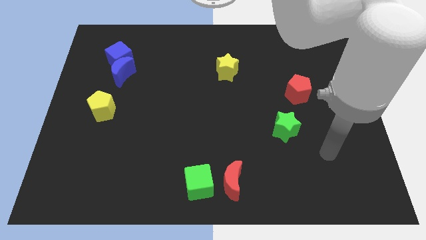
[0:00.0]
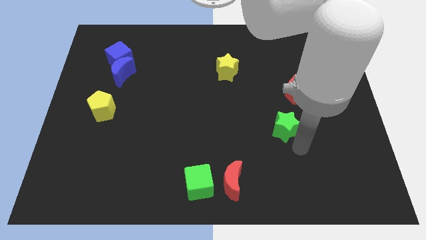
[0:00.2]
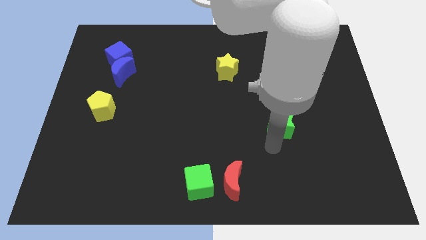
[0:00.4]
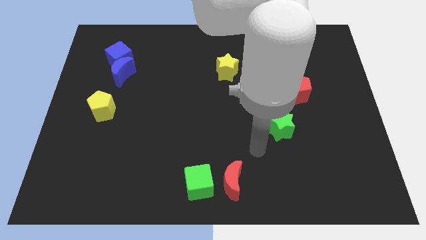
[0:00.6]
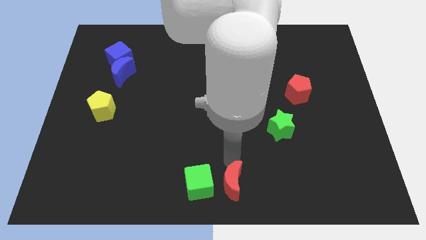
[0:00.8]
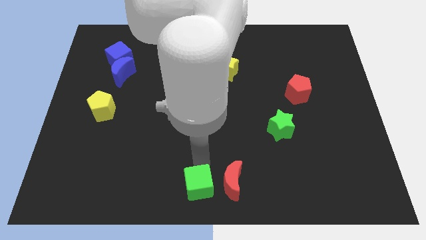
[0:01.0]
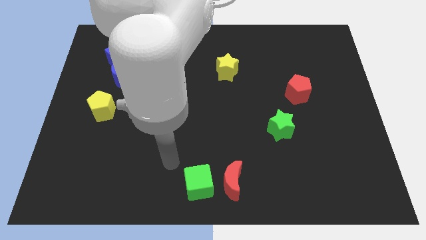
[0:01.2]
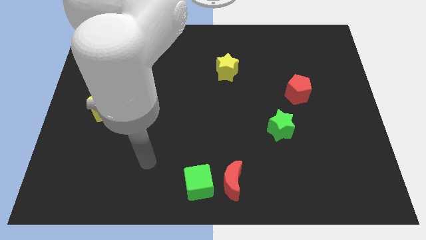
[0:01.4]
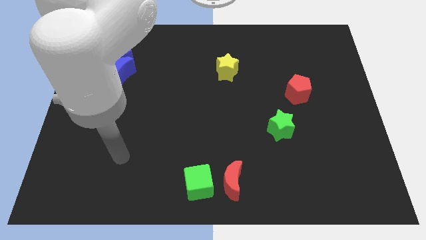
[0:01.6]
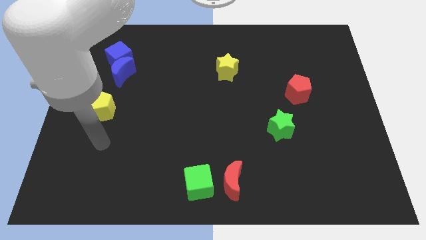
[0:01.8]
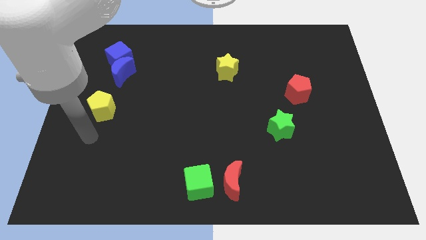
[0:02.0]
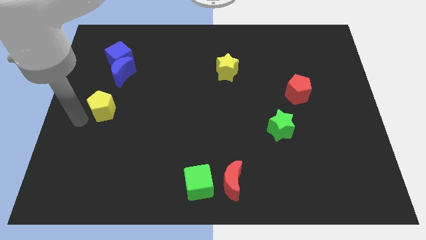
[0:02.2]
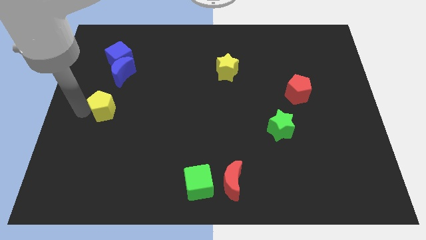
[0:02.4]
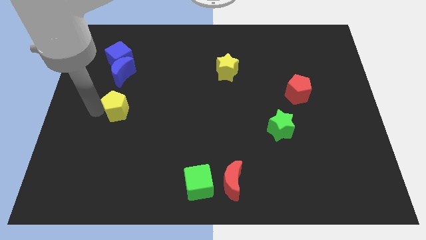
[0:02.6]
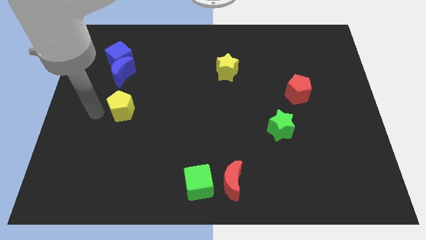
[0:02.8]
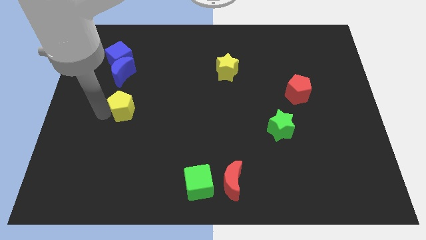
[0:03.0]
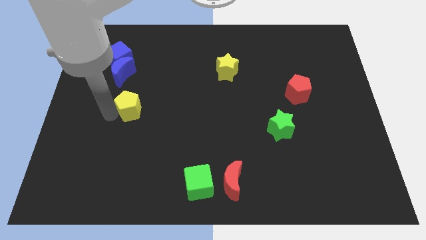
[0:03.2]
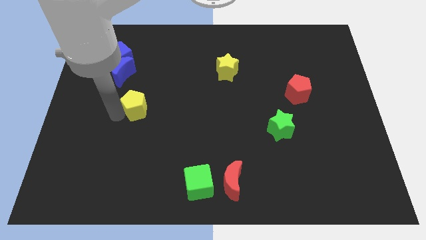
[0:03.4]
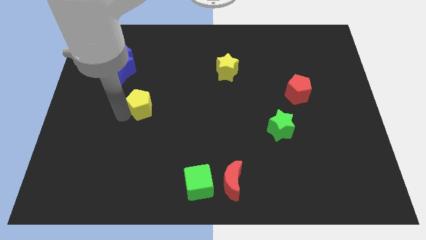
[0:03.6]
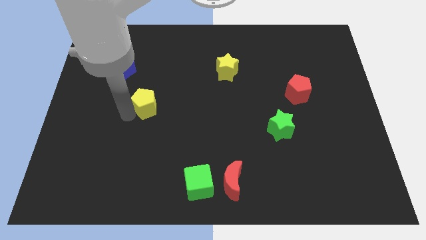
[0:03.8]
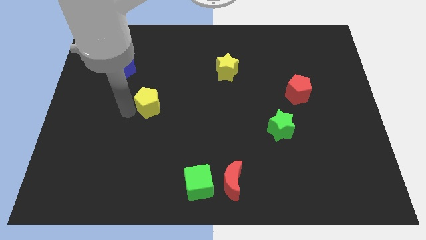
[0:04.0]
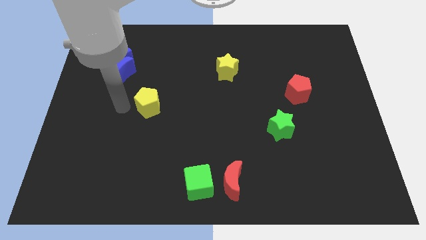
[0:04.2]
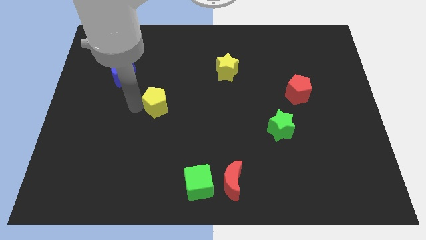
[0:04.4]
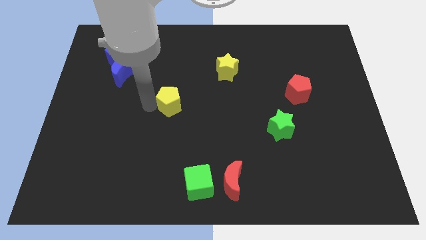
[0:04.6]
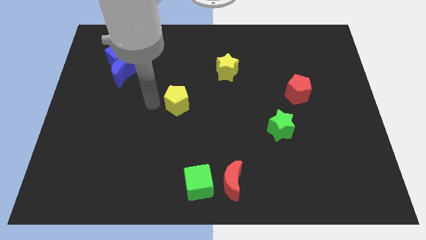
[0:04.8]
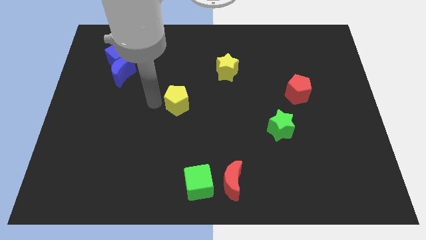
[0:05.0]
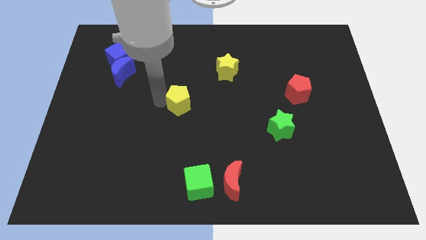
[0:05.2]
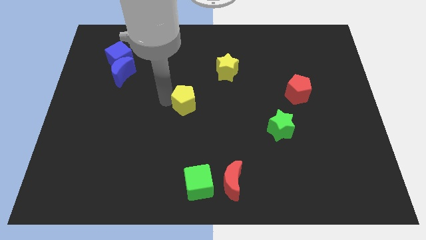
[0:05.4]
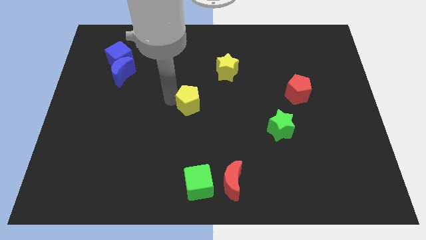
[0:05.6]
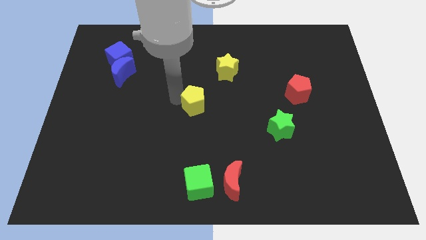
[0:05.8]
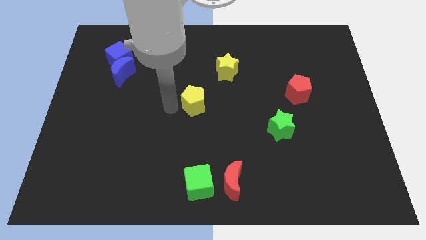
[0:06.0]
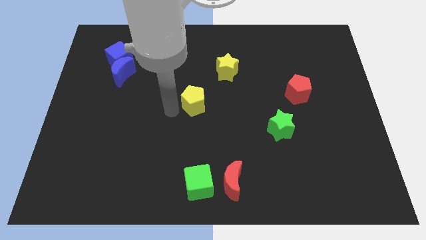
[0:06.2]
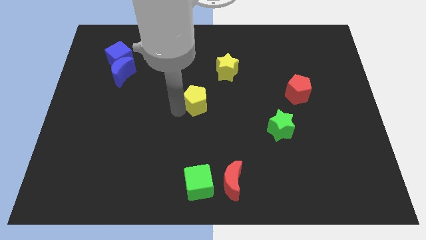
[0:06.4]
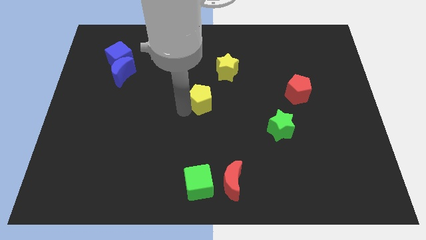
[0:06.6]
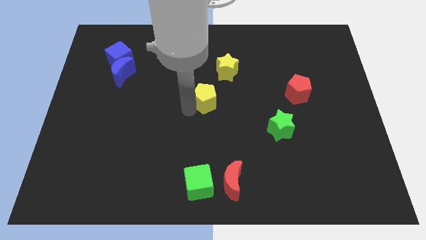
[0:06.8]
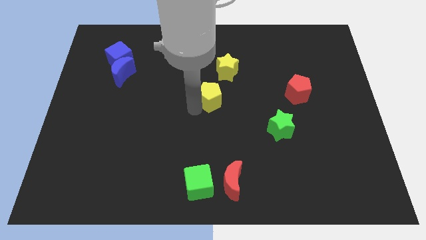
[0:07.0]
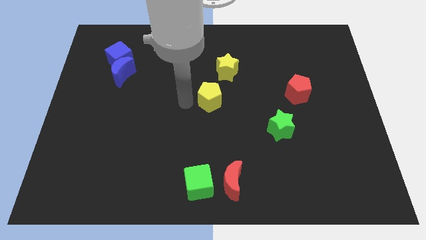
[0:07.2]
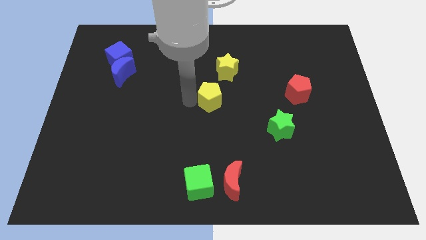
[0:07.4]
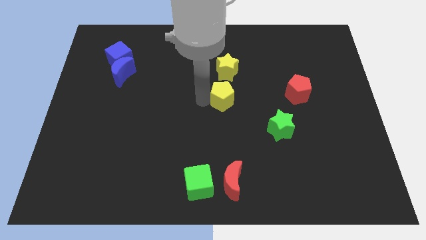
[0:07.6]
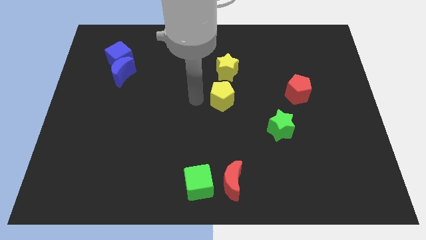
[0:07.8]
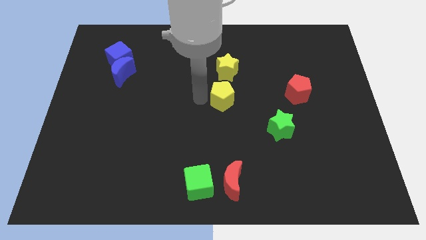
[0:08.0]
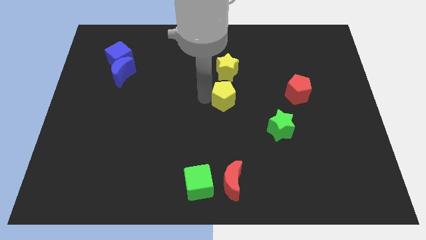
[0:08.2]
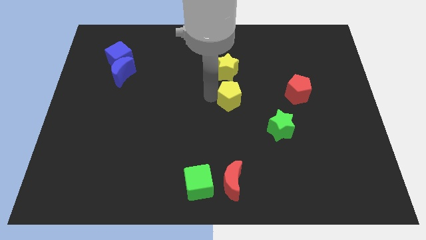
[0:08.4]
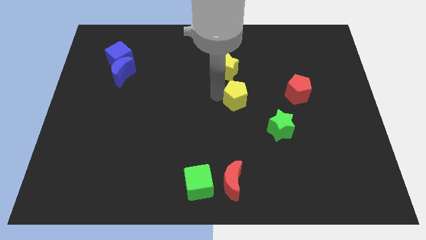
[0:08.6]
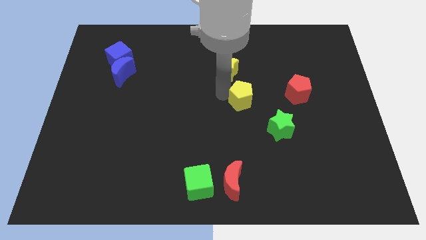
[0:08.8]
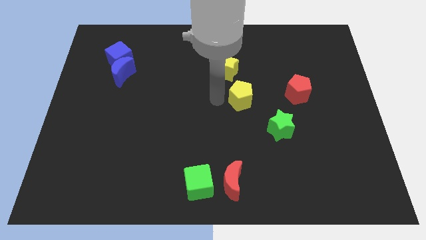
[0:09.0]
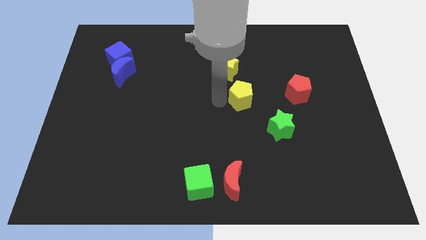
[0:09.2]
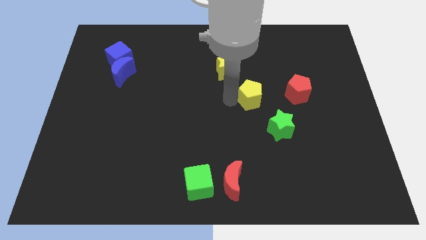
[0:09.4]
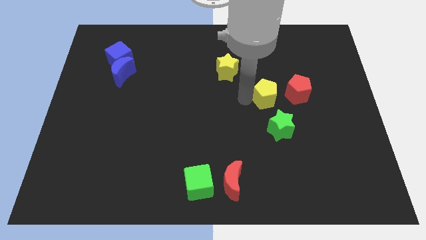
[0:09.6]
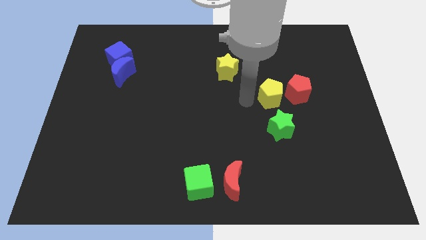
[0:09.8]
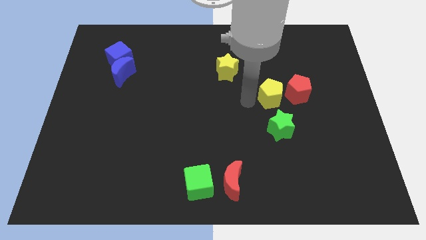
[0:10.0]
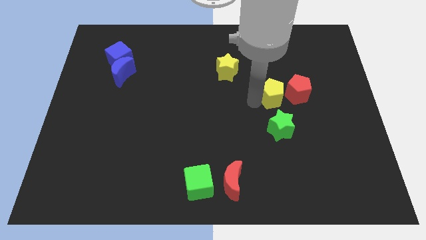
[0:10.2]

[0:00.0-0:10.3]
slide the yellow pentagon next to the red pentagon

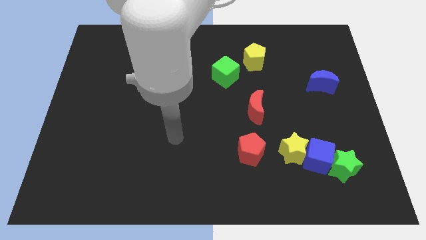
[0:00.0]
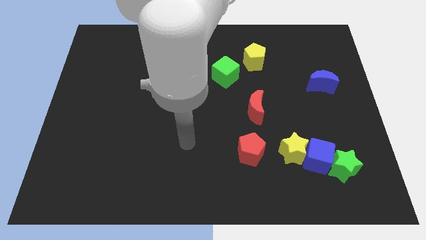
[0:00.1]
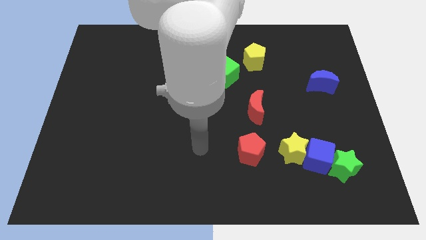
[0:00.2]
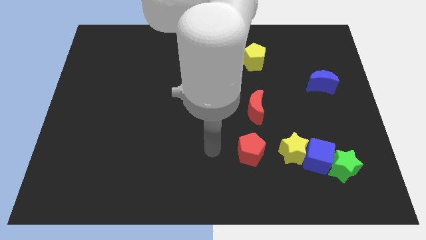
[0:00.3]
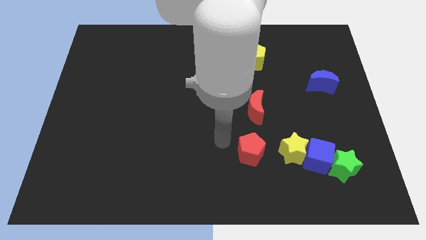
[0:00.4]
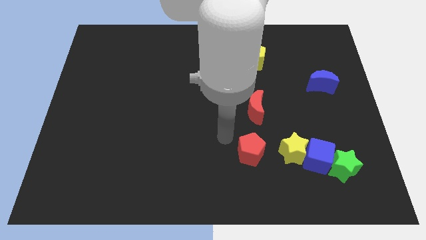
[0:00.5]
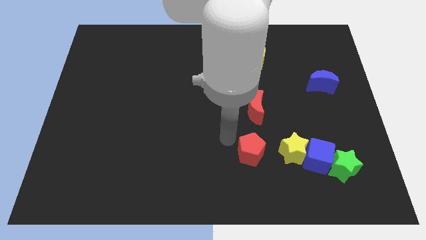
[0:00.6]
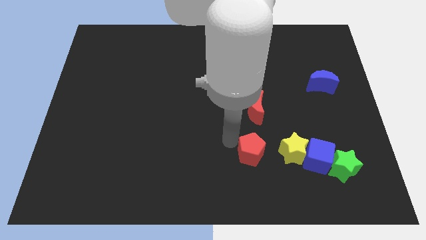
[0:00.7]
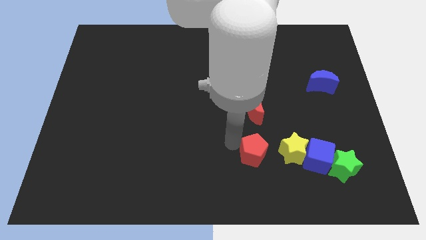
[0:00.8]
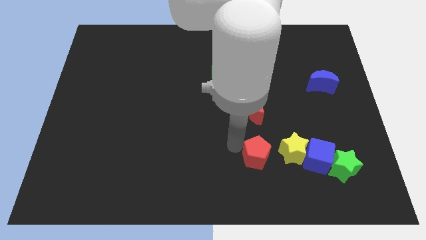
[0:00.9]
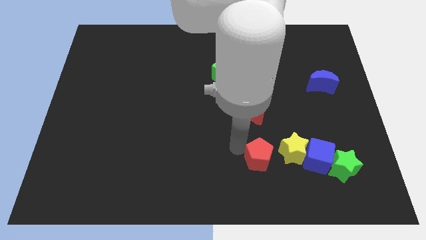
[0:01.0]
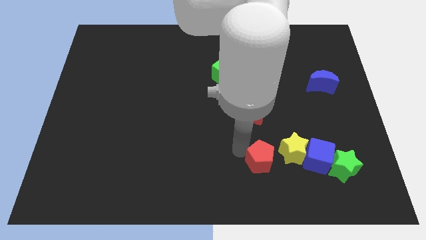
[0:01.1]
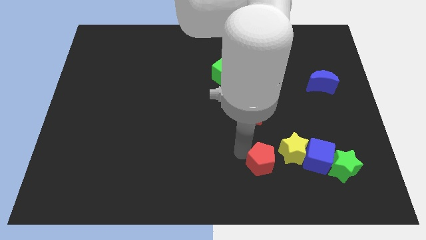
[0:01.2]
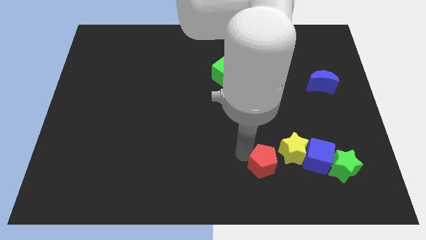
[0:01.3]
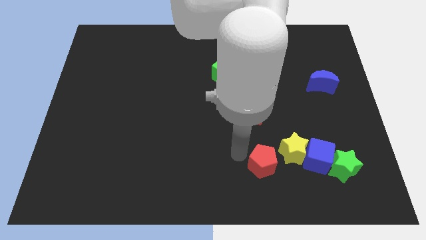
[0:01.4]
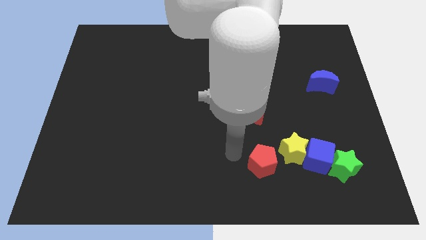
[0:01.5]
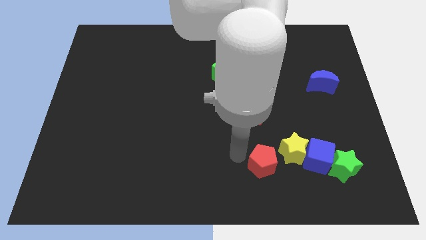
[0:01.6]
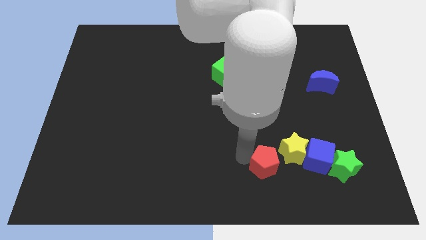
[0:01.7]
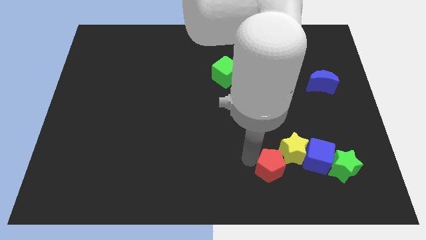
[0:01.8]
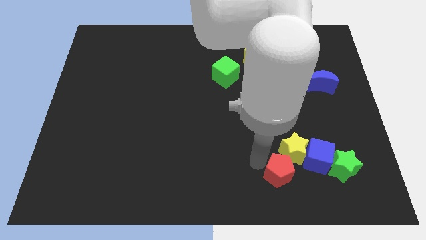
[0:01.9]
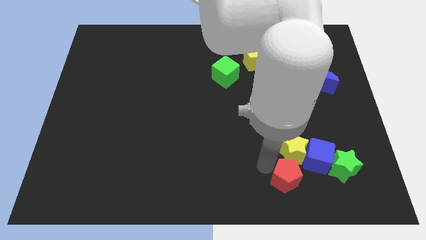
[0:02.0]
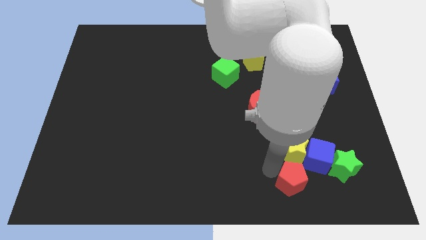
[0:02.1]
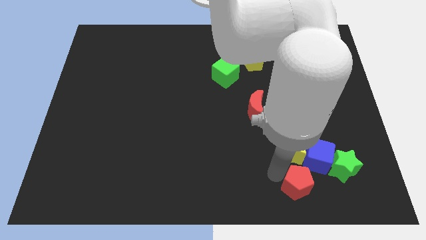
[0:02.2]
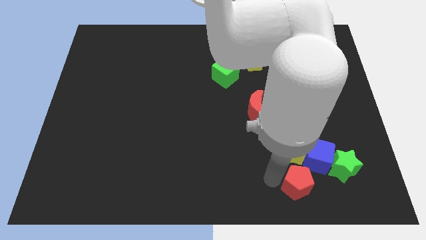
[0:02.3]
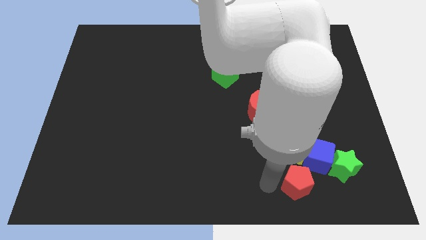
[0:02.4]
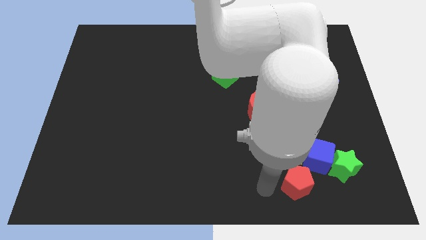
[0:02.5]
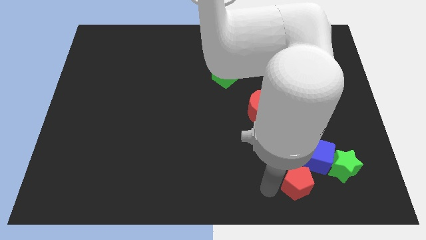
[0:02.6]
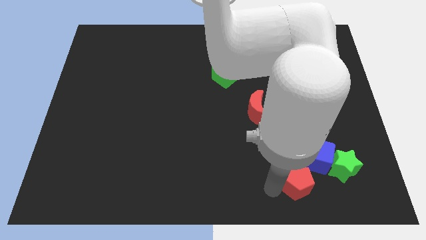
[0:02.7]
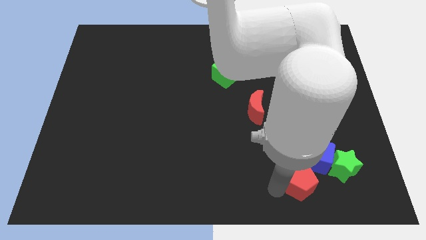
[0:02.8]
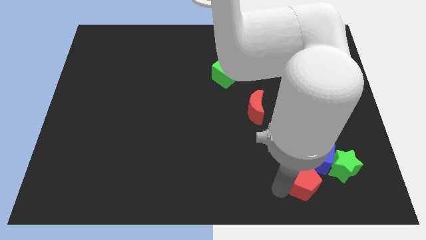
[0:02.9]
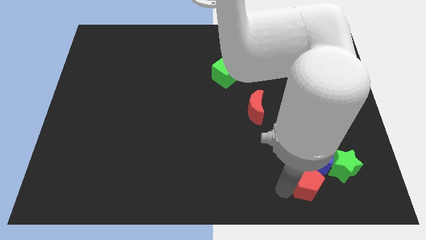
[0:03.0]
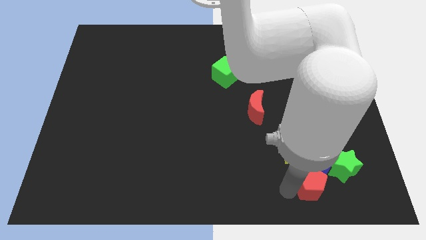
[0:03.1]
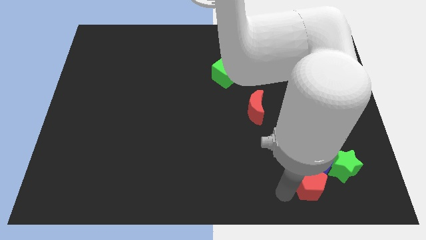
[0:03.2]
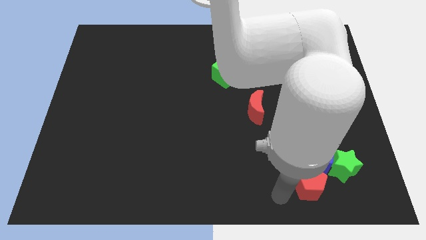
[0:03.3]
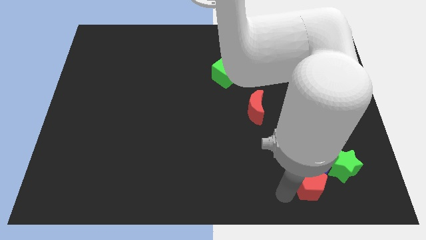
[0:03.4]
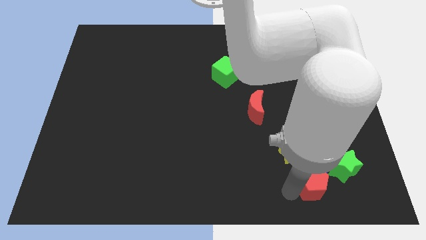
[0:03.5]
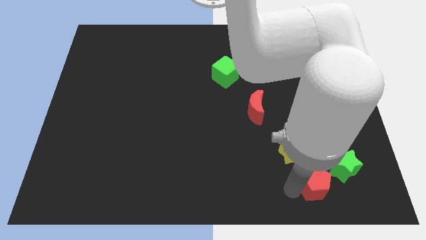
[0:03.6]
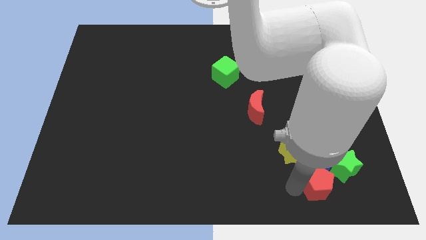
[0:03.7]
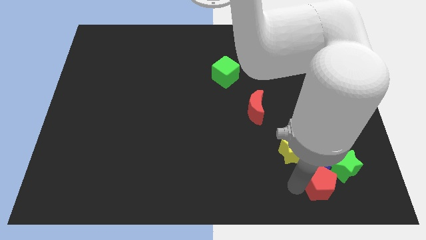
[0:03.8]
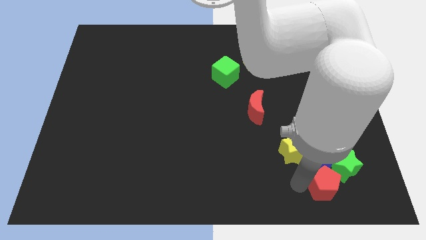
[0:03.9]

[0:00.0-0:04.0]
move the red pentagon to the green star
